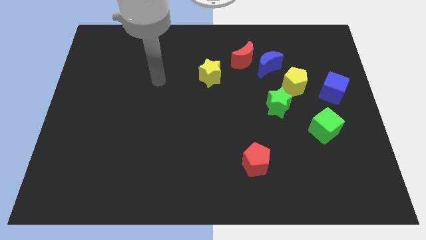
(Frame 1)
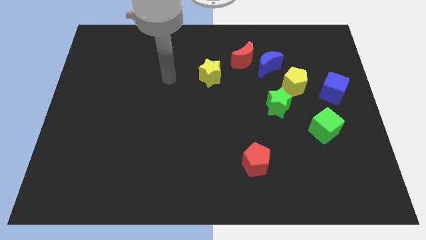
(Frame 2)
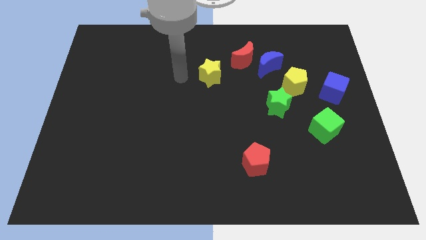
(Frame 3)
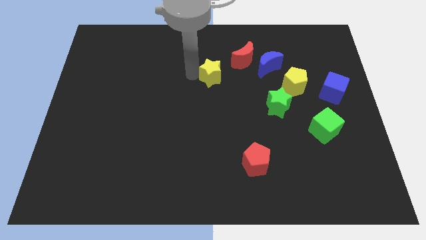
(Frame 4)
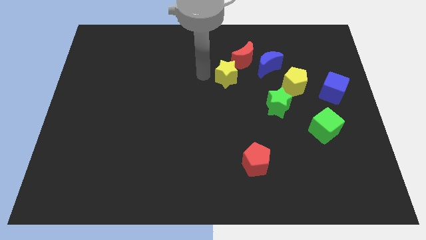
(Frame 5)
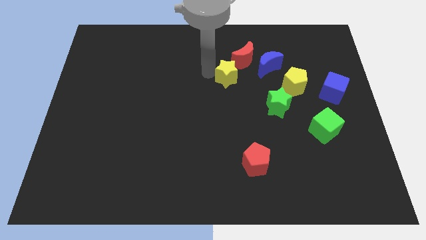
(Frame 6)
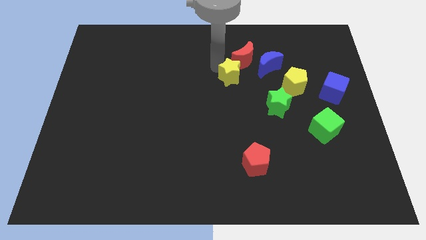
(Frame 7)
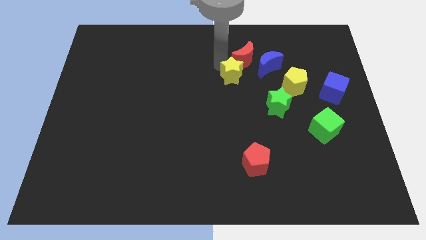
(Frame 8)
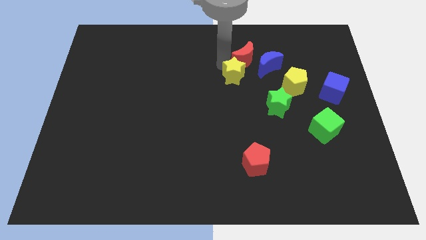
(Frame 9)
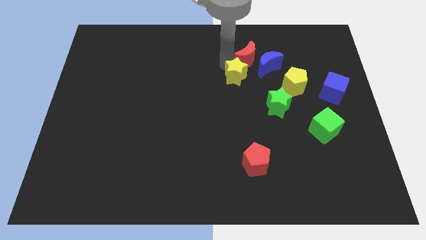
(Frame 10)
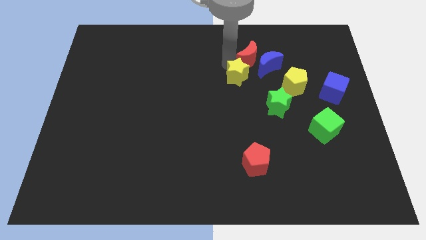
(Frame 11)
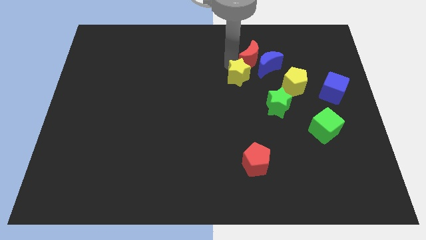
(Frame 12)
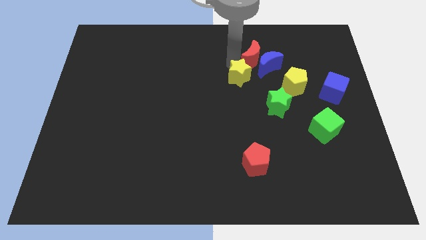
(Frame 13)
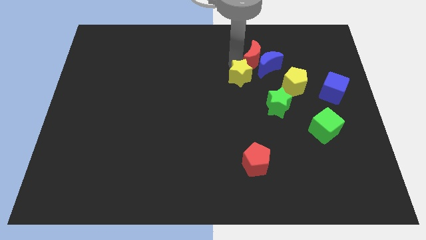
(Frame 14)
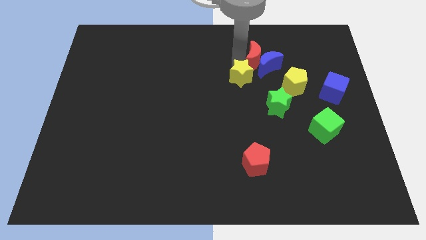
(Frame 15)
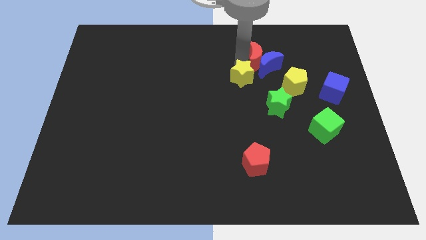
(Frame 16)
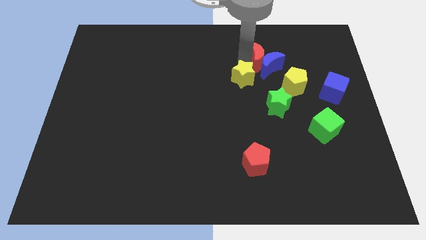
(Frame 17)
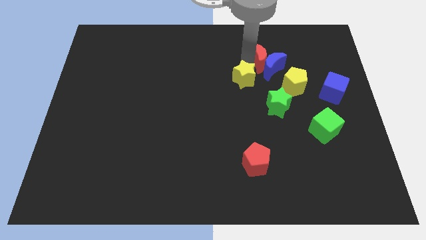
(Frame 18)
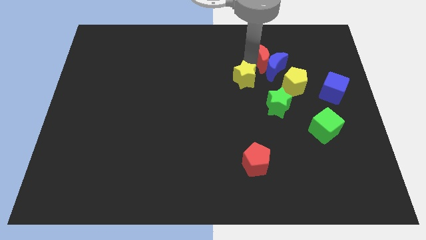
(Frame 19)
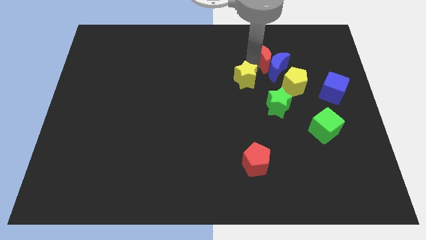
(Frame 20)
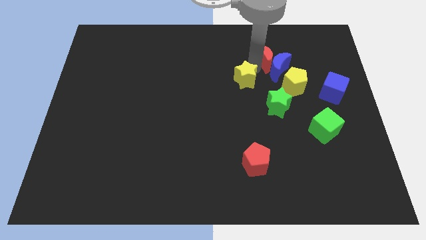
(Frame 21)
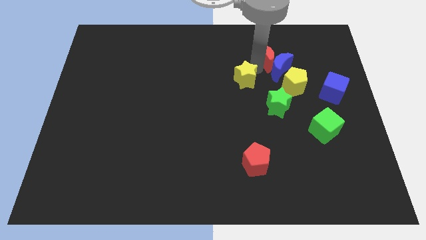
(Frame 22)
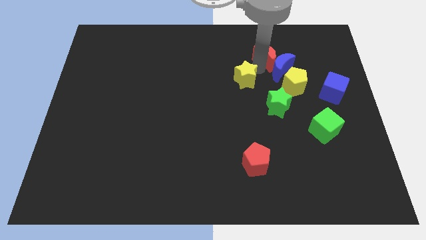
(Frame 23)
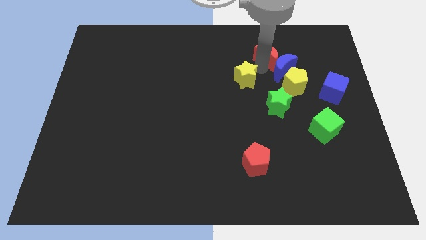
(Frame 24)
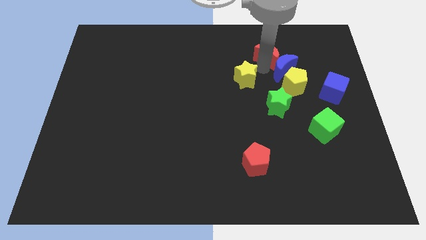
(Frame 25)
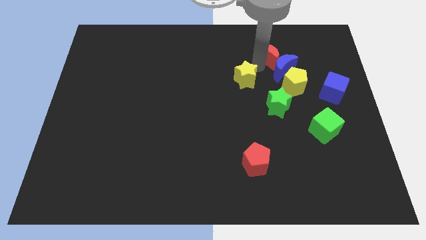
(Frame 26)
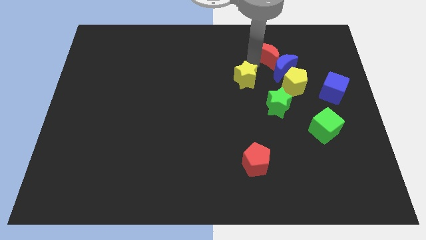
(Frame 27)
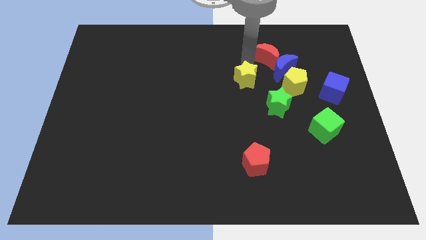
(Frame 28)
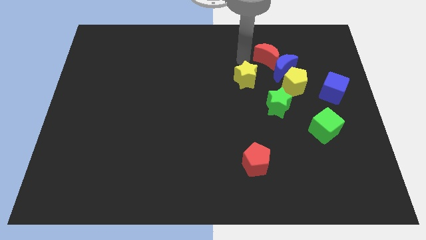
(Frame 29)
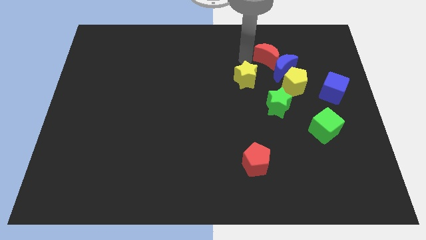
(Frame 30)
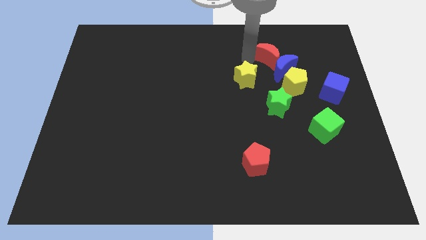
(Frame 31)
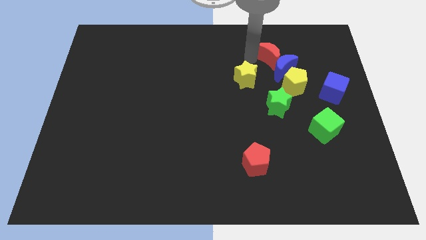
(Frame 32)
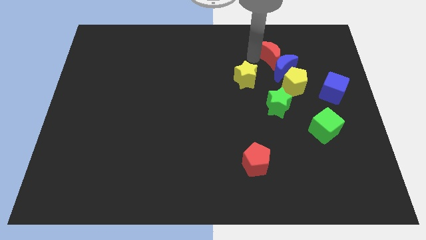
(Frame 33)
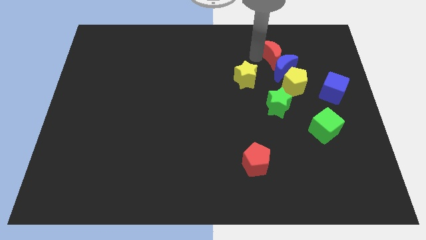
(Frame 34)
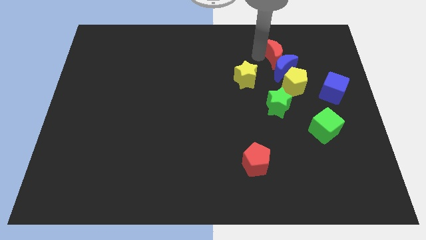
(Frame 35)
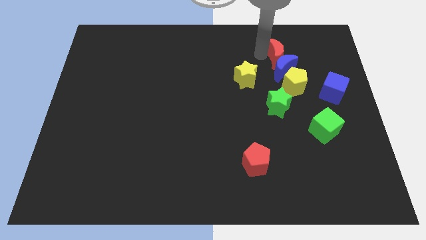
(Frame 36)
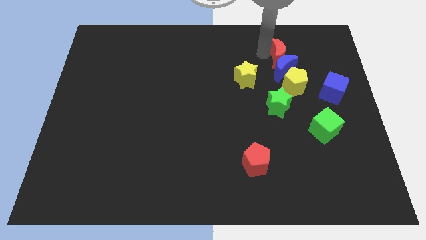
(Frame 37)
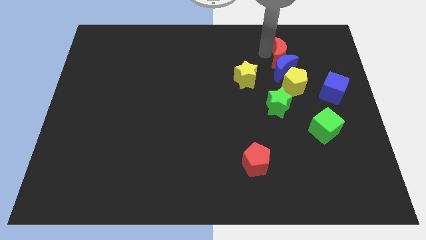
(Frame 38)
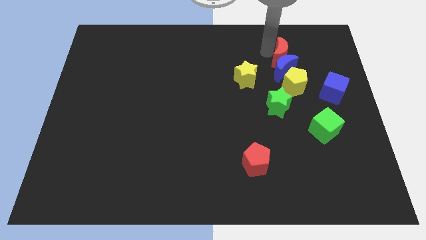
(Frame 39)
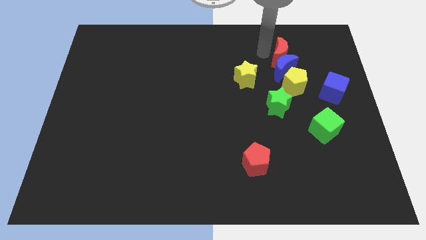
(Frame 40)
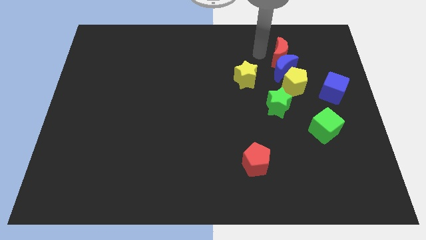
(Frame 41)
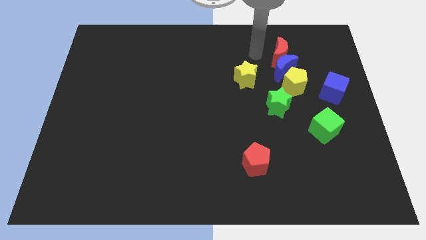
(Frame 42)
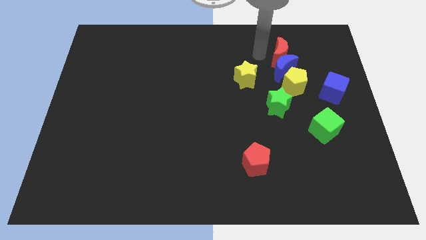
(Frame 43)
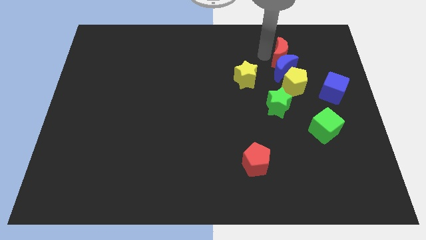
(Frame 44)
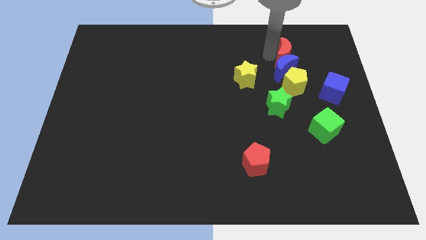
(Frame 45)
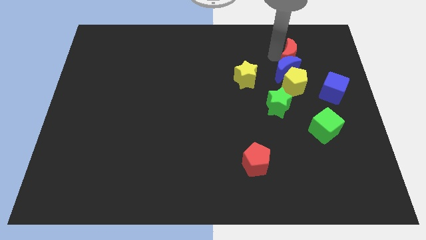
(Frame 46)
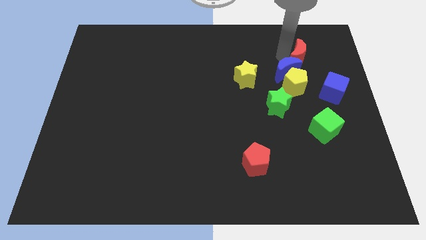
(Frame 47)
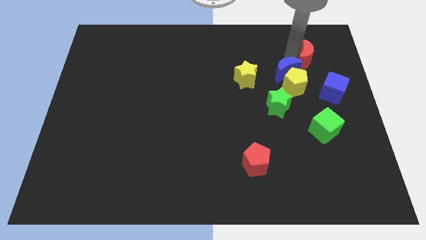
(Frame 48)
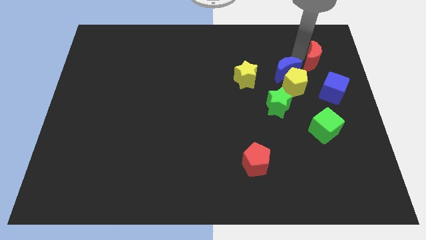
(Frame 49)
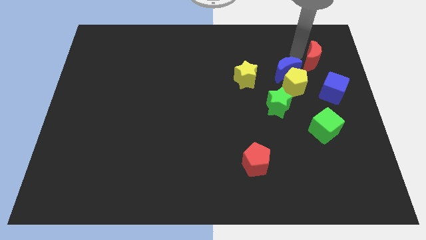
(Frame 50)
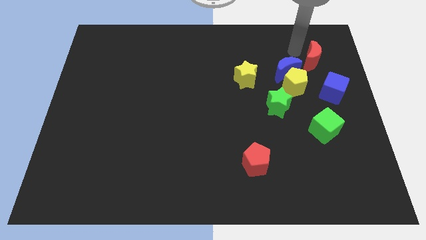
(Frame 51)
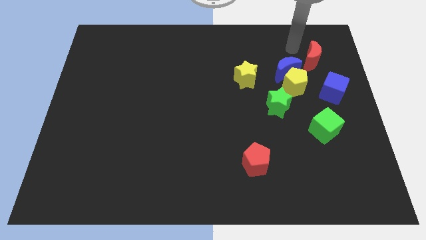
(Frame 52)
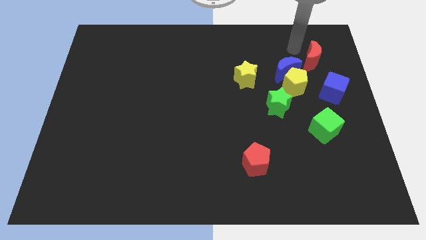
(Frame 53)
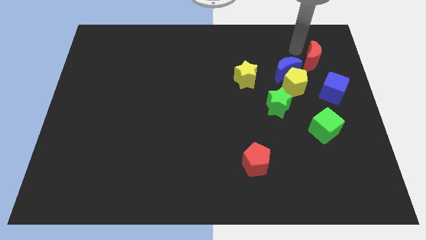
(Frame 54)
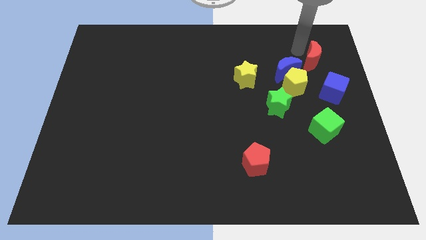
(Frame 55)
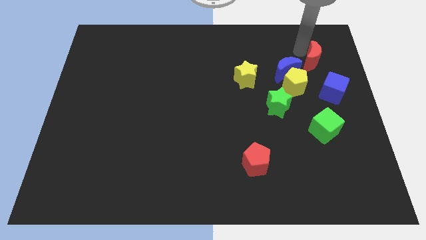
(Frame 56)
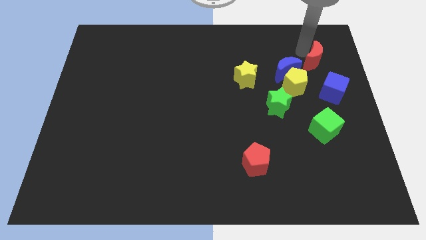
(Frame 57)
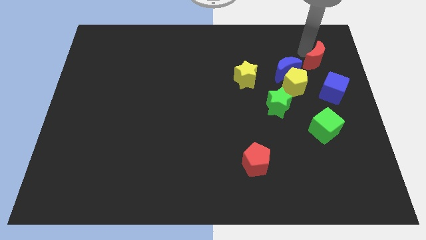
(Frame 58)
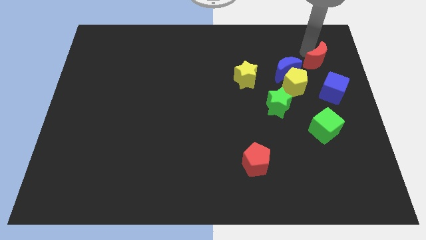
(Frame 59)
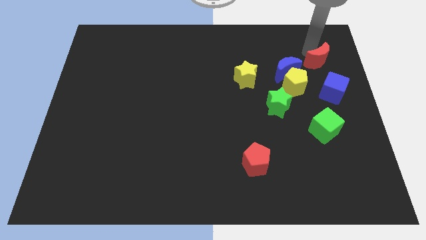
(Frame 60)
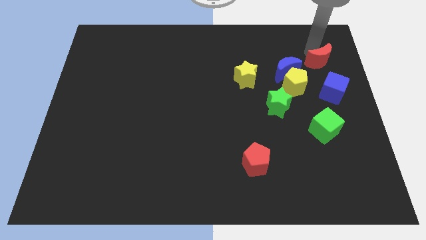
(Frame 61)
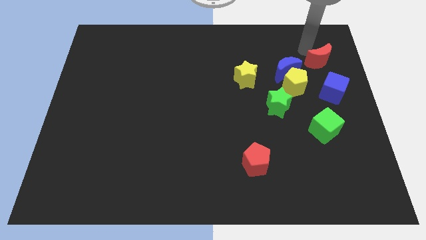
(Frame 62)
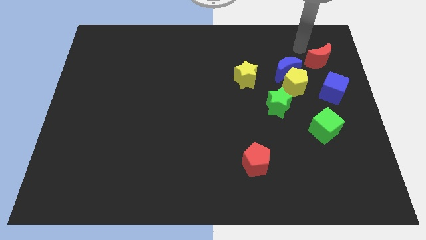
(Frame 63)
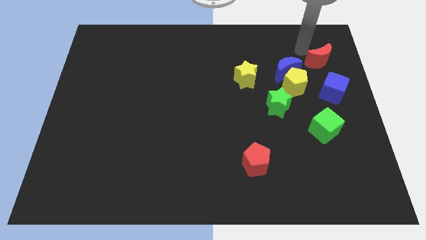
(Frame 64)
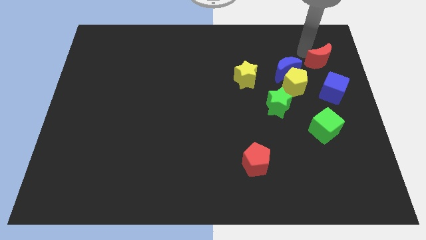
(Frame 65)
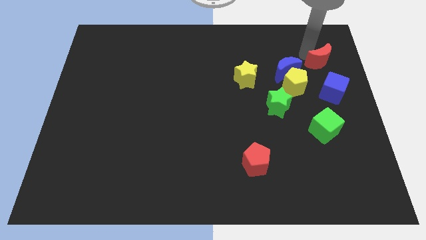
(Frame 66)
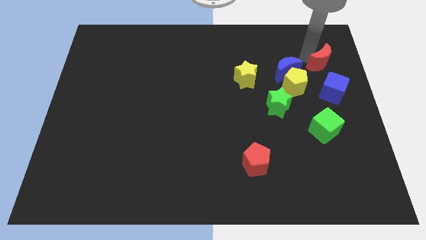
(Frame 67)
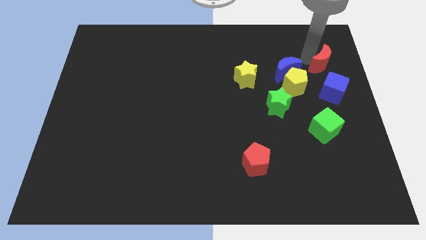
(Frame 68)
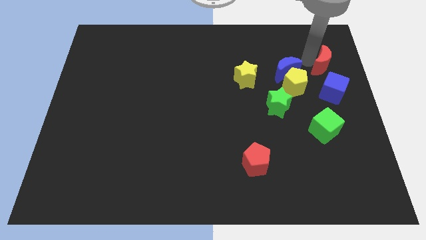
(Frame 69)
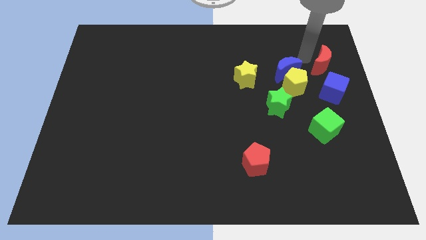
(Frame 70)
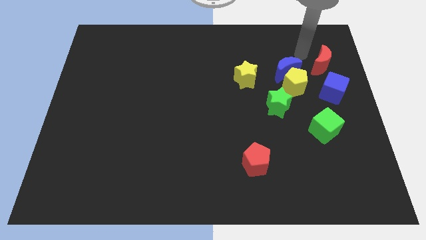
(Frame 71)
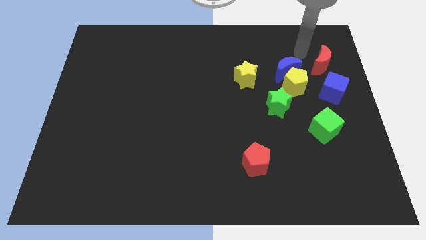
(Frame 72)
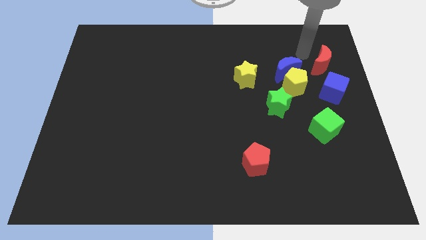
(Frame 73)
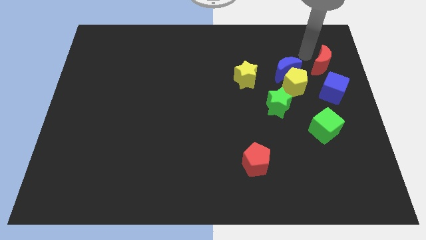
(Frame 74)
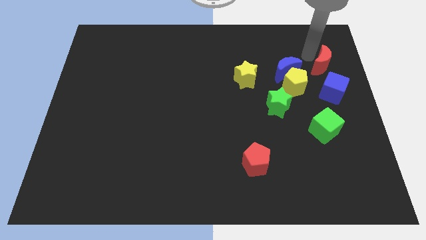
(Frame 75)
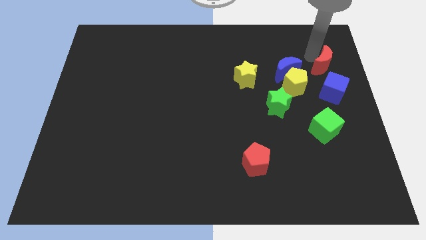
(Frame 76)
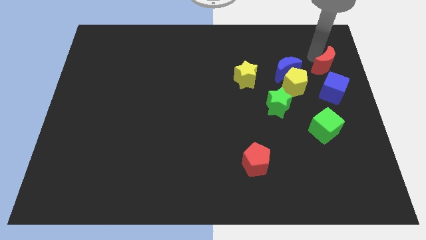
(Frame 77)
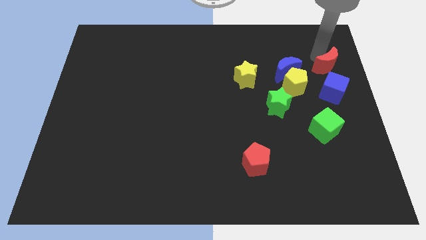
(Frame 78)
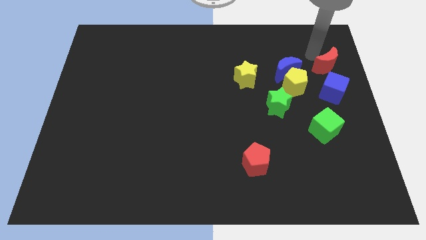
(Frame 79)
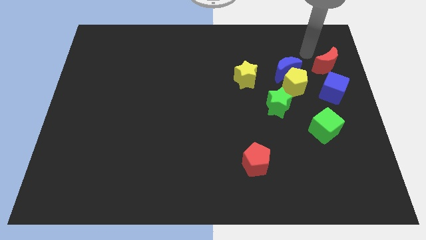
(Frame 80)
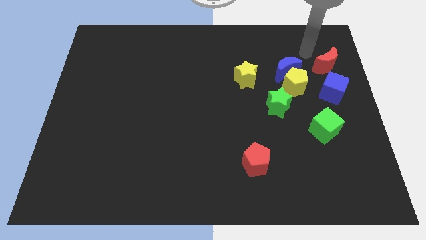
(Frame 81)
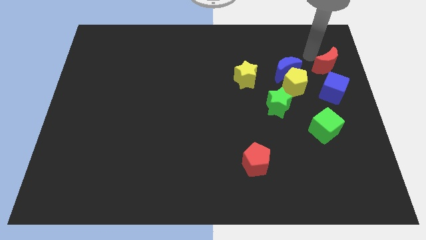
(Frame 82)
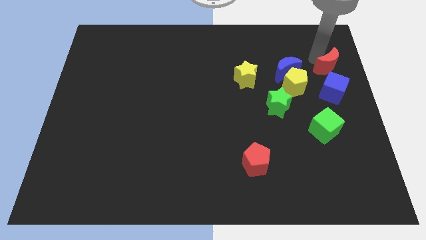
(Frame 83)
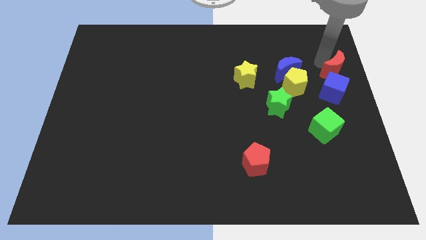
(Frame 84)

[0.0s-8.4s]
push the red moon to the right side of the board
